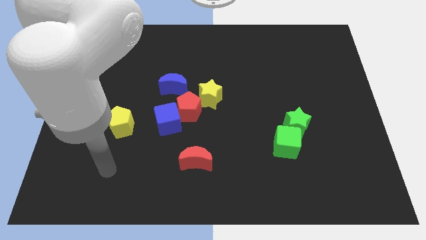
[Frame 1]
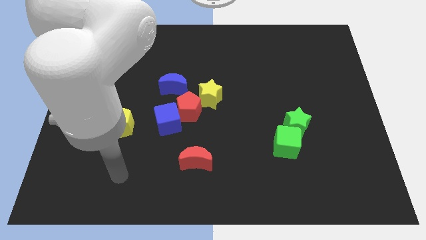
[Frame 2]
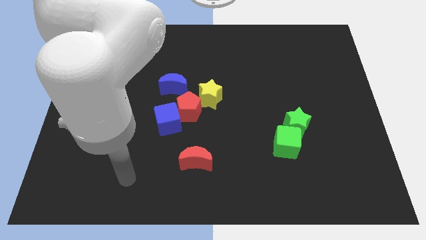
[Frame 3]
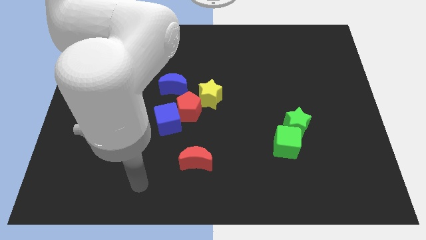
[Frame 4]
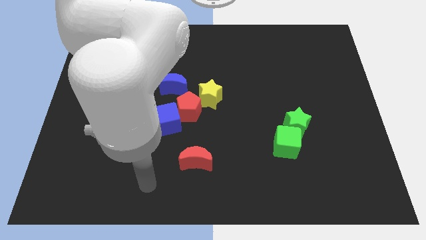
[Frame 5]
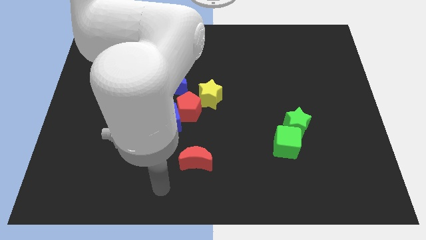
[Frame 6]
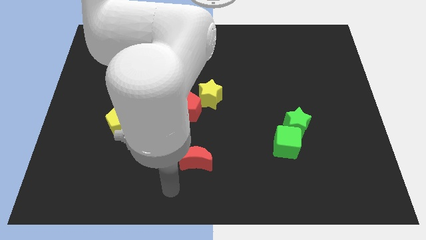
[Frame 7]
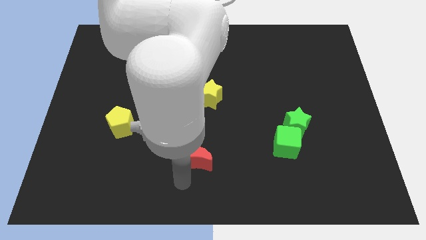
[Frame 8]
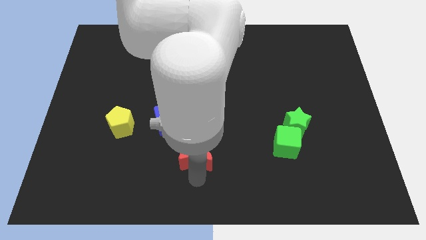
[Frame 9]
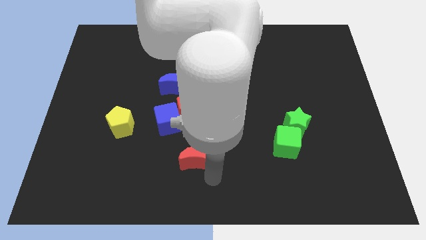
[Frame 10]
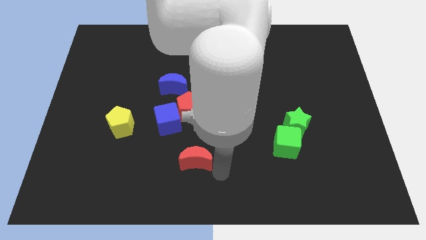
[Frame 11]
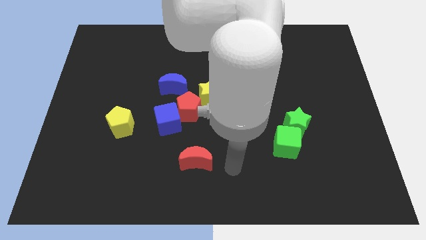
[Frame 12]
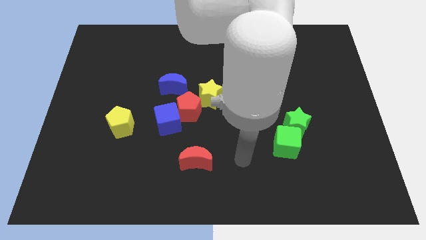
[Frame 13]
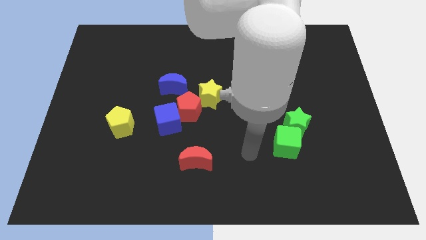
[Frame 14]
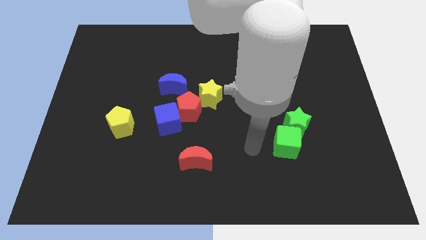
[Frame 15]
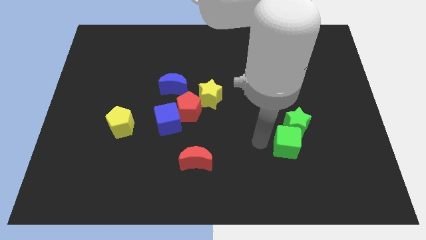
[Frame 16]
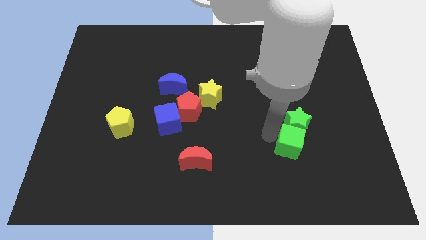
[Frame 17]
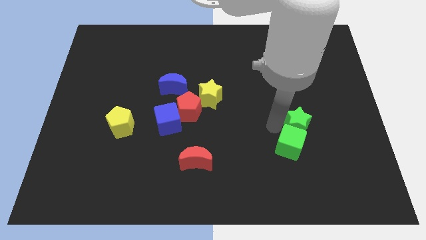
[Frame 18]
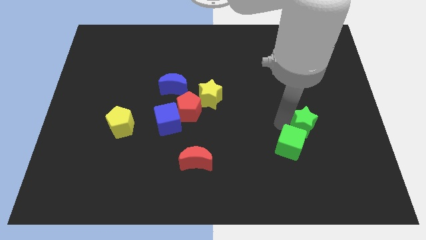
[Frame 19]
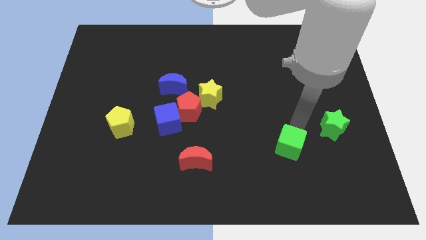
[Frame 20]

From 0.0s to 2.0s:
move the green cube away from the green star

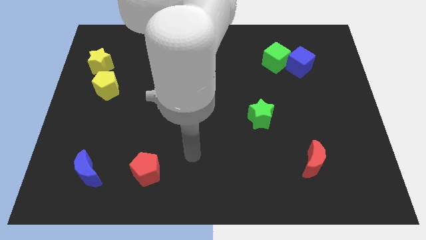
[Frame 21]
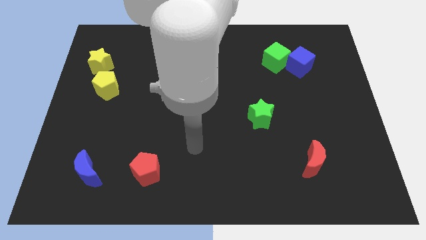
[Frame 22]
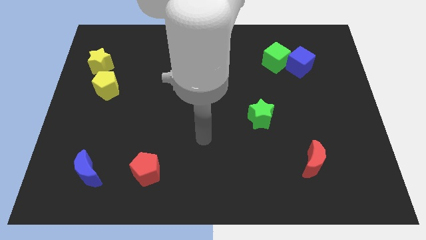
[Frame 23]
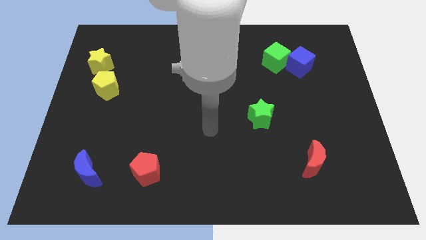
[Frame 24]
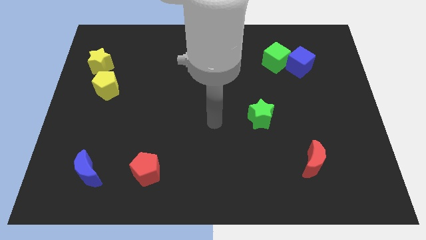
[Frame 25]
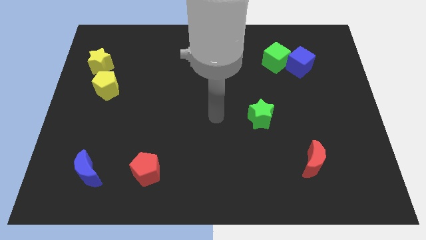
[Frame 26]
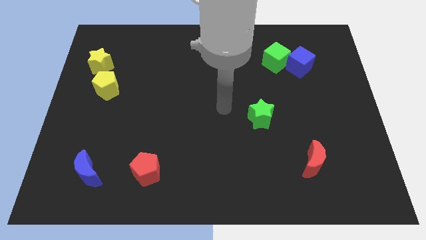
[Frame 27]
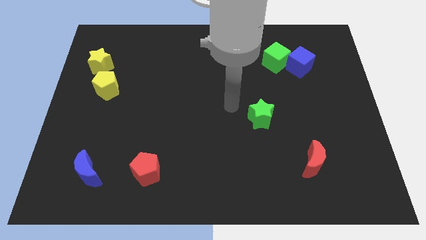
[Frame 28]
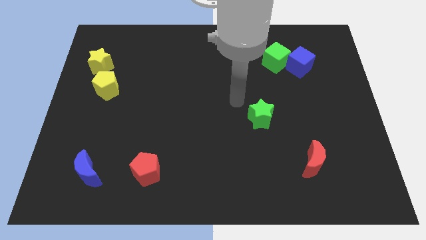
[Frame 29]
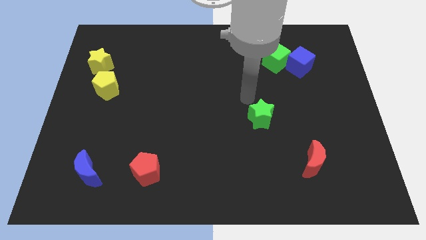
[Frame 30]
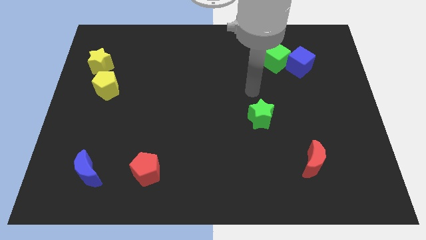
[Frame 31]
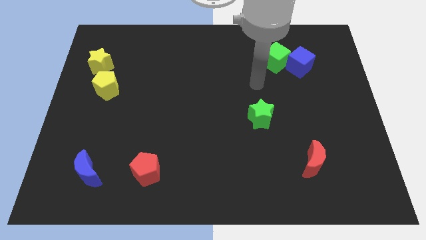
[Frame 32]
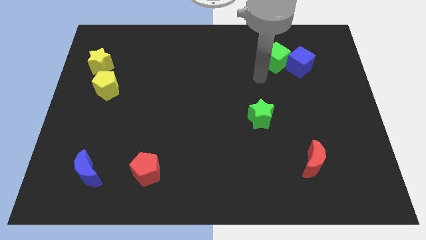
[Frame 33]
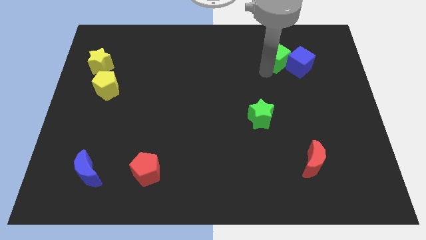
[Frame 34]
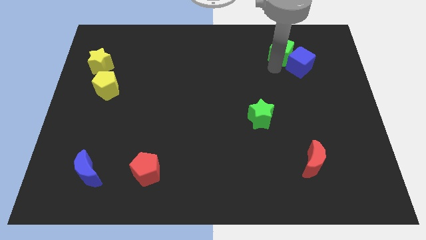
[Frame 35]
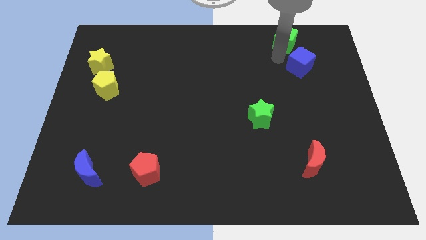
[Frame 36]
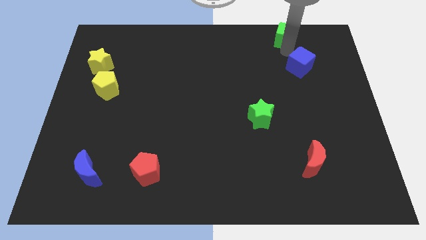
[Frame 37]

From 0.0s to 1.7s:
move the blue cube away from the green cube

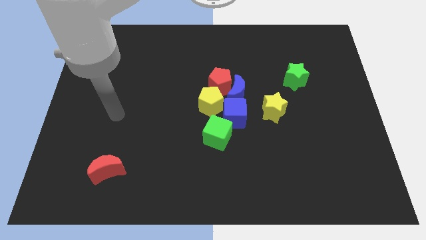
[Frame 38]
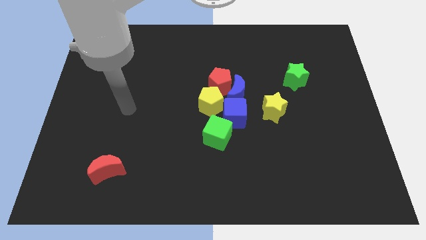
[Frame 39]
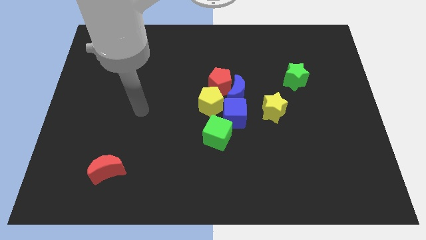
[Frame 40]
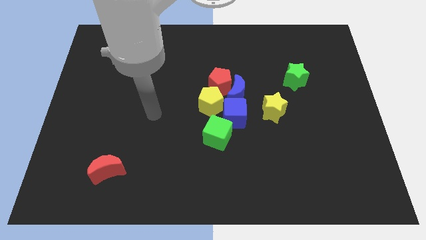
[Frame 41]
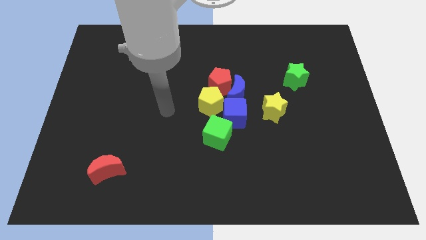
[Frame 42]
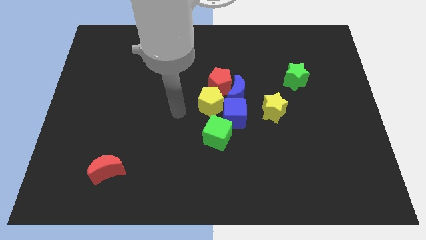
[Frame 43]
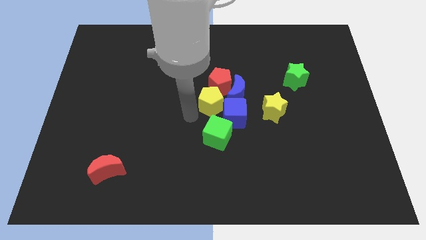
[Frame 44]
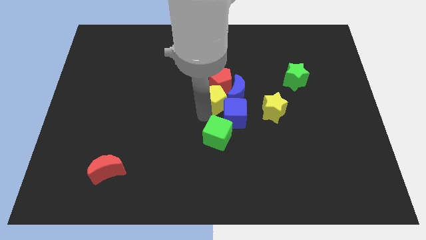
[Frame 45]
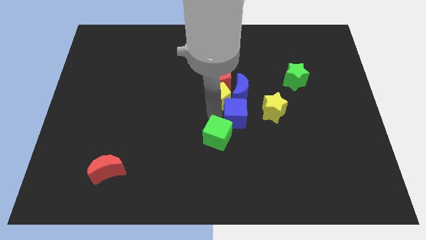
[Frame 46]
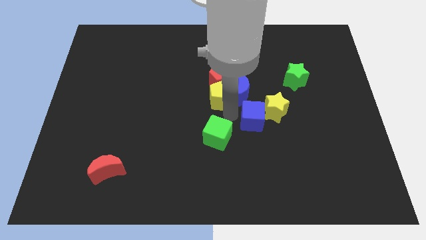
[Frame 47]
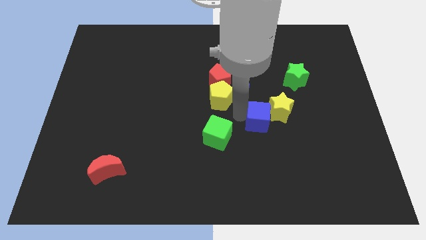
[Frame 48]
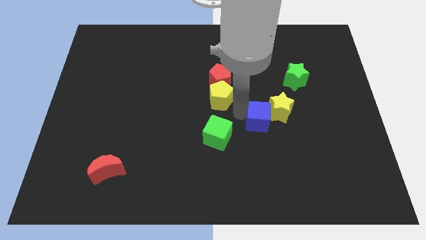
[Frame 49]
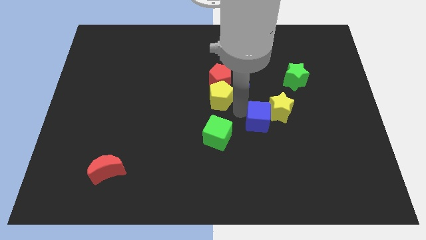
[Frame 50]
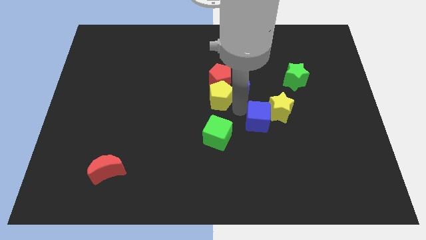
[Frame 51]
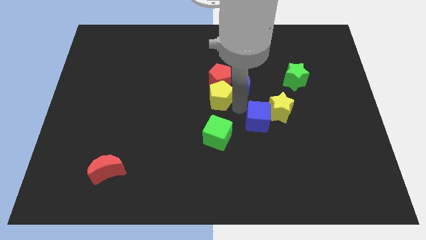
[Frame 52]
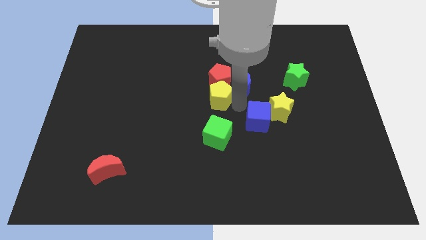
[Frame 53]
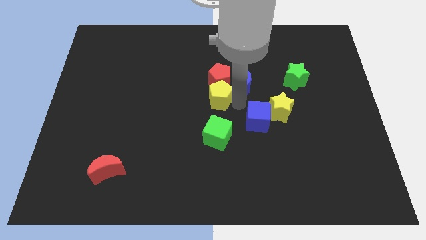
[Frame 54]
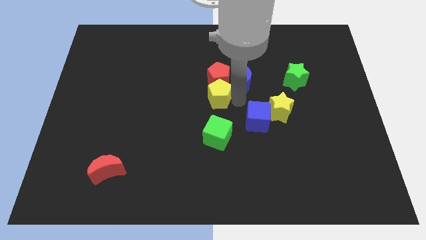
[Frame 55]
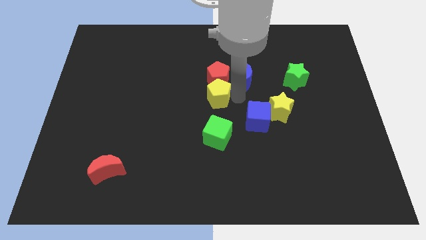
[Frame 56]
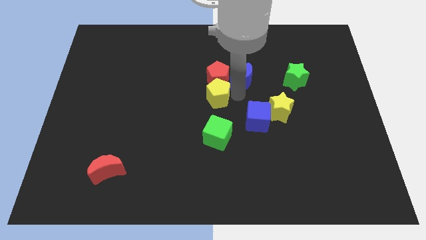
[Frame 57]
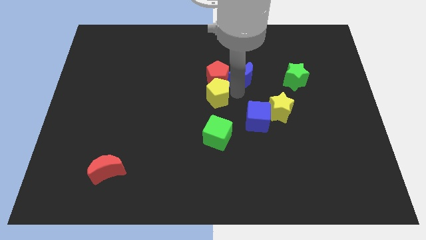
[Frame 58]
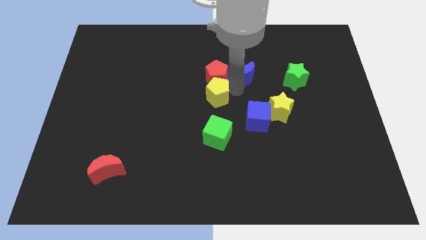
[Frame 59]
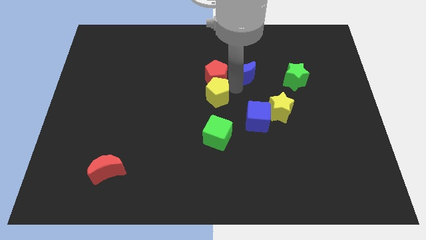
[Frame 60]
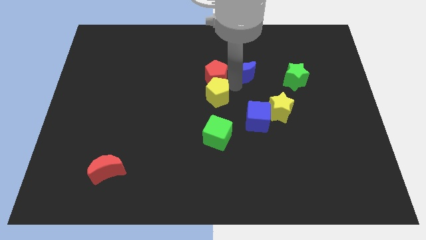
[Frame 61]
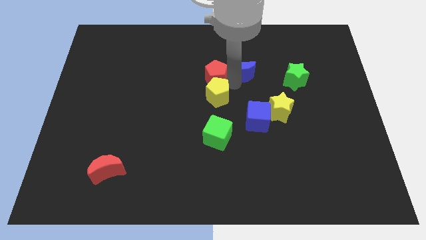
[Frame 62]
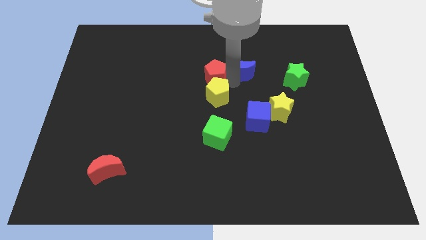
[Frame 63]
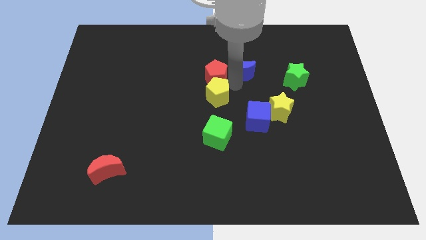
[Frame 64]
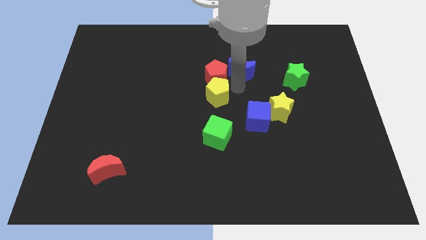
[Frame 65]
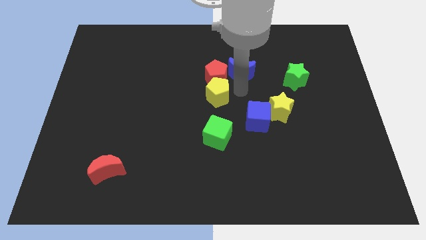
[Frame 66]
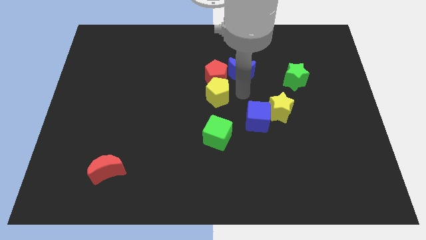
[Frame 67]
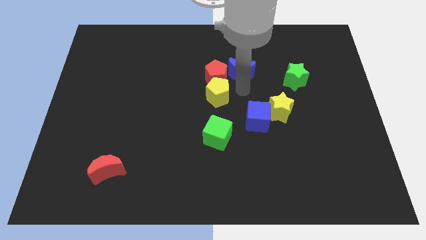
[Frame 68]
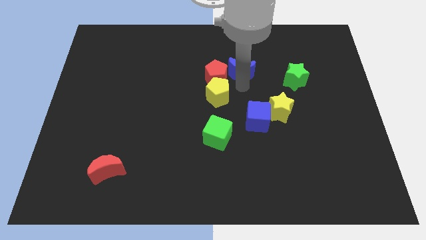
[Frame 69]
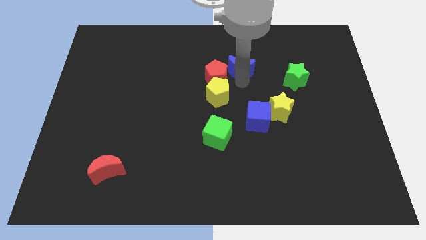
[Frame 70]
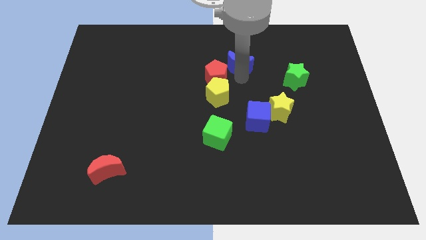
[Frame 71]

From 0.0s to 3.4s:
move the blue moon away from the clump

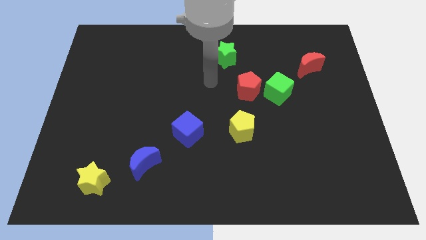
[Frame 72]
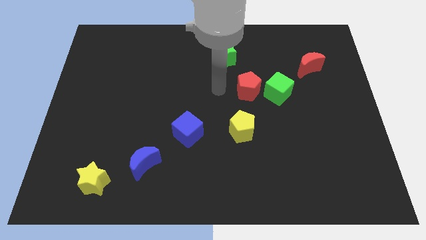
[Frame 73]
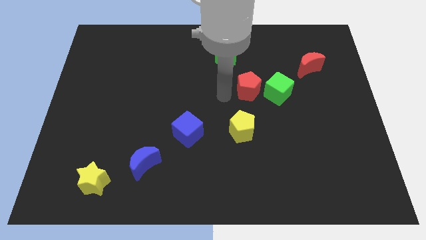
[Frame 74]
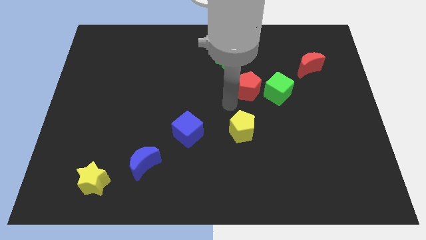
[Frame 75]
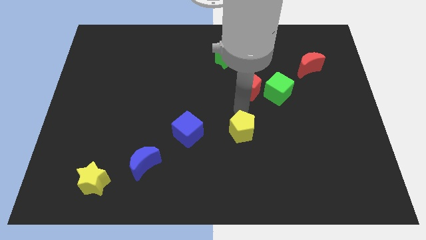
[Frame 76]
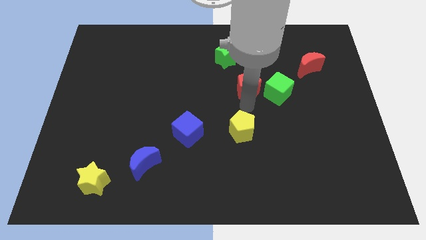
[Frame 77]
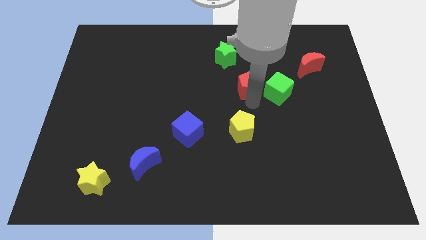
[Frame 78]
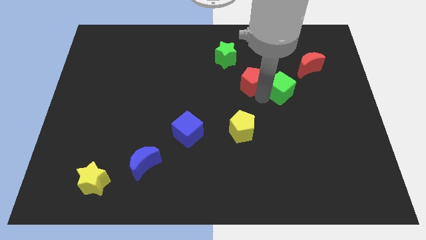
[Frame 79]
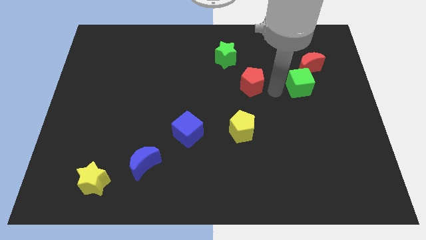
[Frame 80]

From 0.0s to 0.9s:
pull the red pentagon apart from the green cube

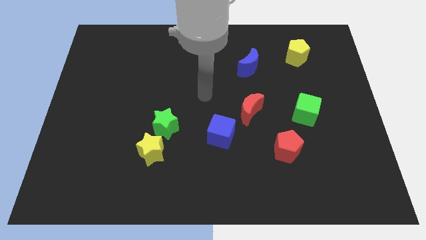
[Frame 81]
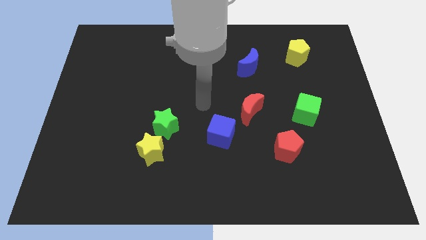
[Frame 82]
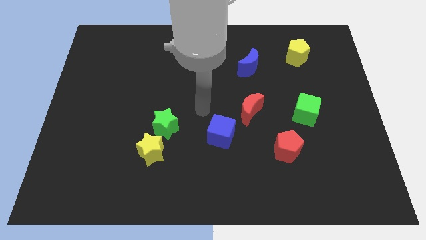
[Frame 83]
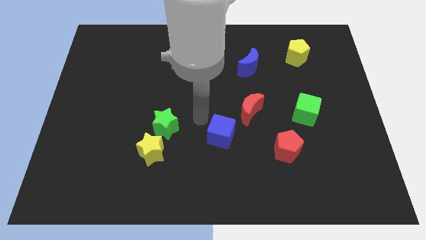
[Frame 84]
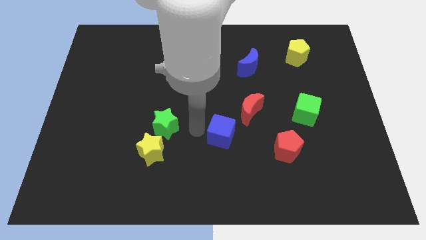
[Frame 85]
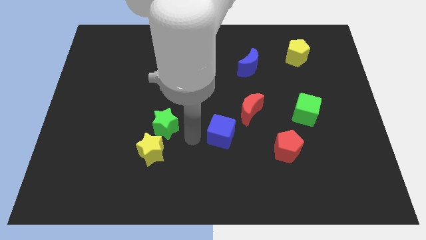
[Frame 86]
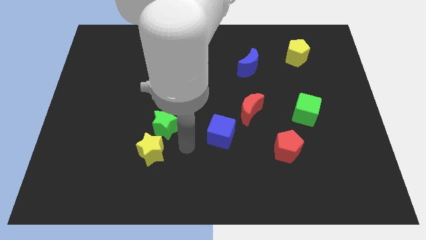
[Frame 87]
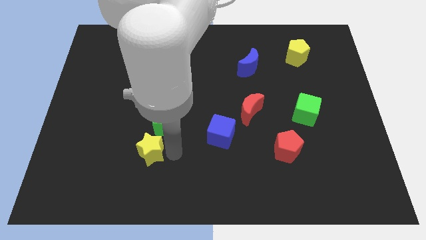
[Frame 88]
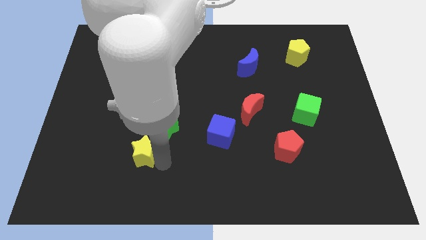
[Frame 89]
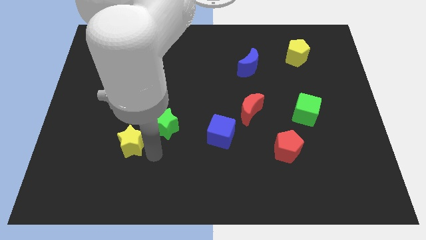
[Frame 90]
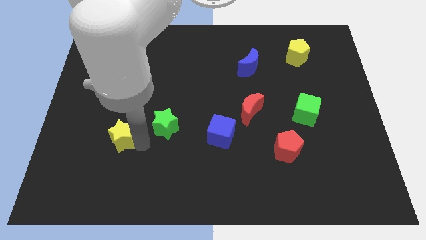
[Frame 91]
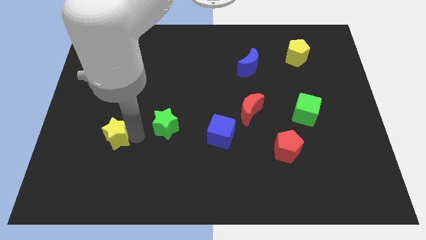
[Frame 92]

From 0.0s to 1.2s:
pull the green star apart from the yellow star

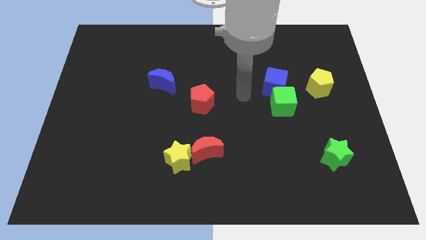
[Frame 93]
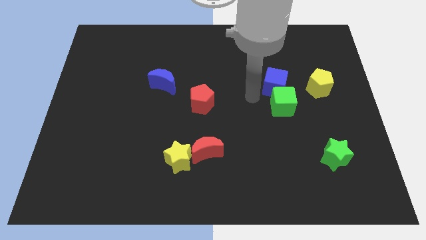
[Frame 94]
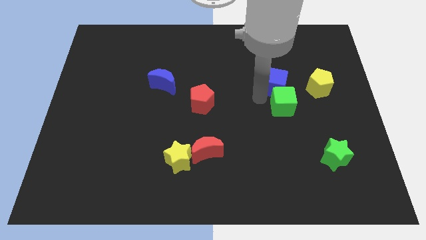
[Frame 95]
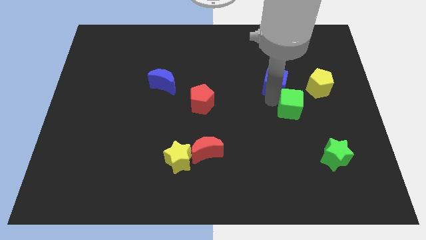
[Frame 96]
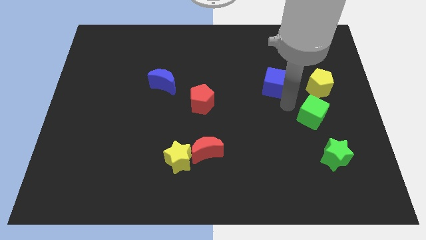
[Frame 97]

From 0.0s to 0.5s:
pull the blue cube apart from the green cube
